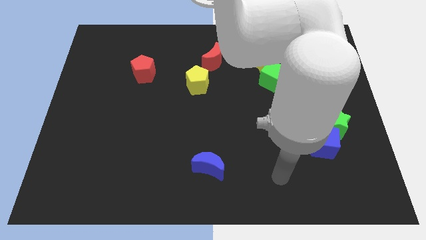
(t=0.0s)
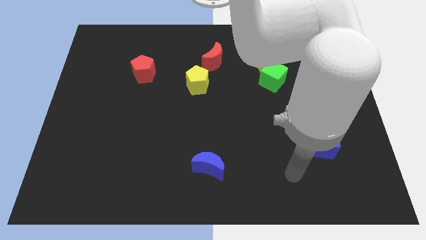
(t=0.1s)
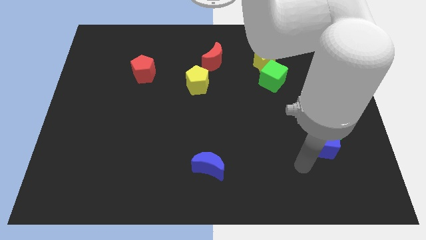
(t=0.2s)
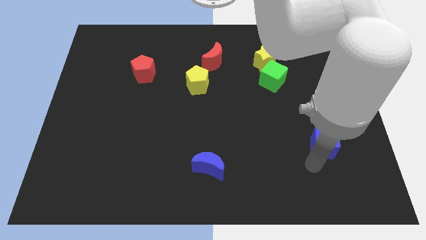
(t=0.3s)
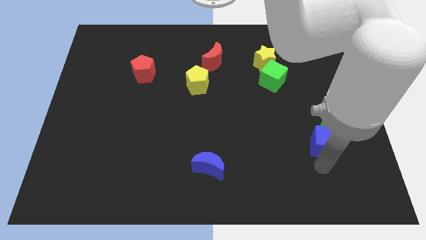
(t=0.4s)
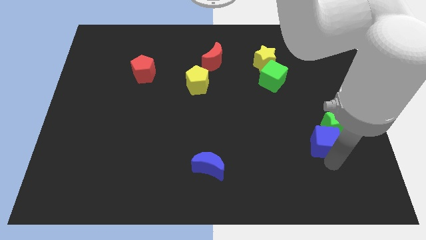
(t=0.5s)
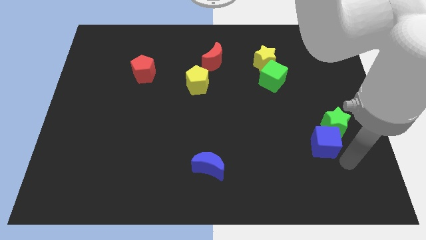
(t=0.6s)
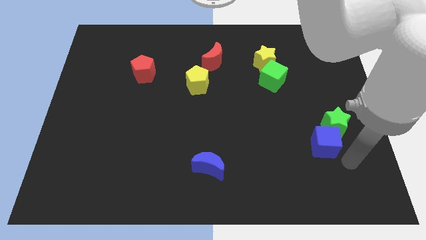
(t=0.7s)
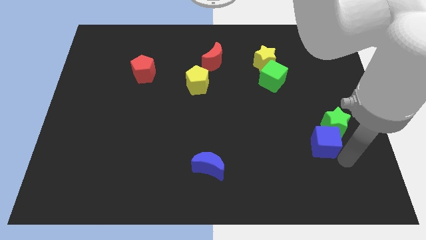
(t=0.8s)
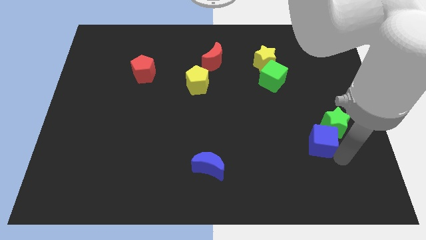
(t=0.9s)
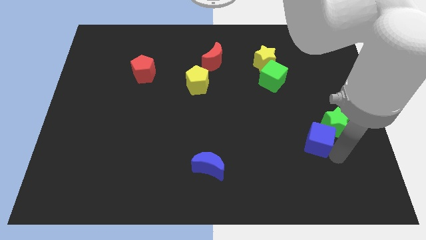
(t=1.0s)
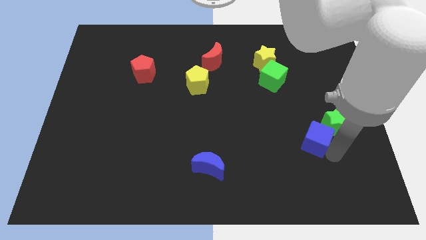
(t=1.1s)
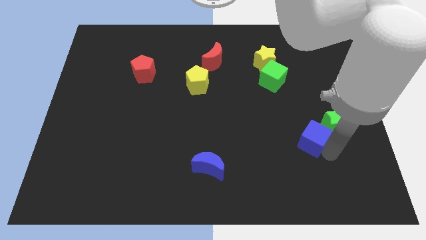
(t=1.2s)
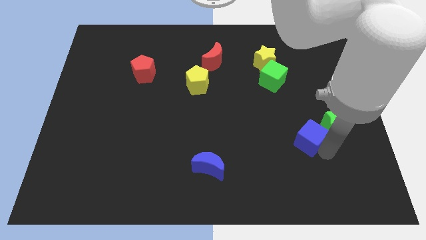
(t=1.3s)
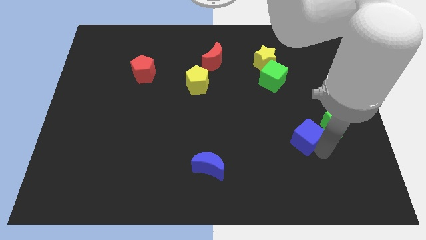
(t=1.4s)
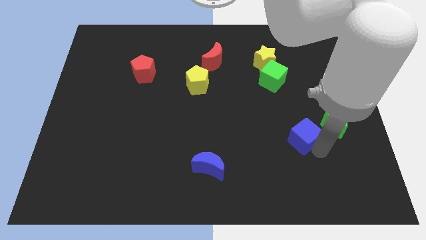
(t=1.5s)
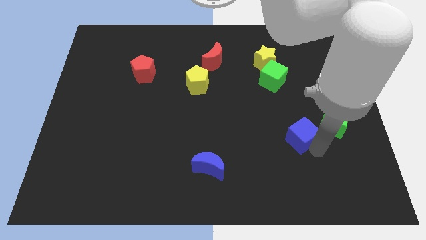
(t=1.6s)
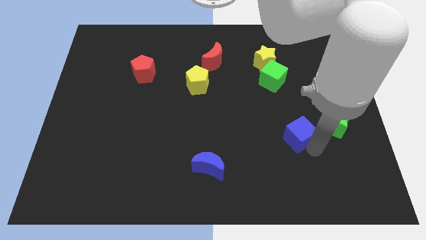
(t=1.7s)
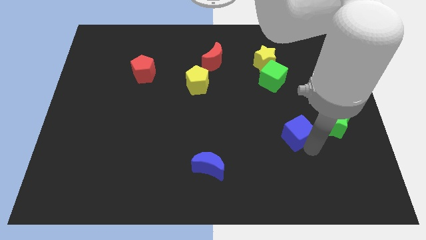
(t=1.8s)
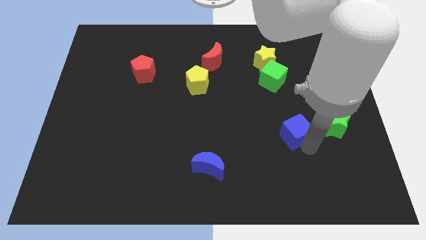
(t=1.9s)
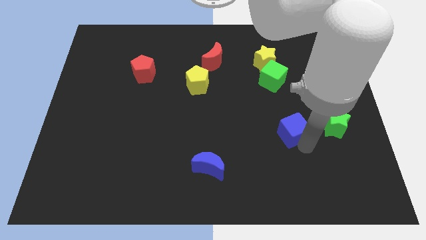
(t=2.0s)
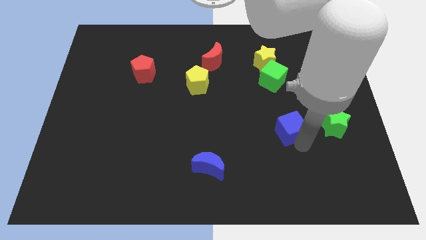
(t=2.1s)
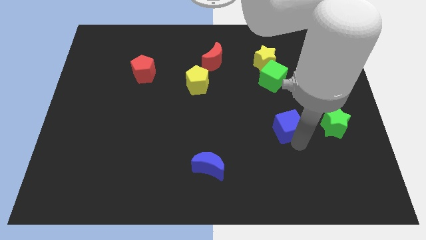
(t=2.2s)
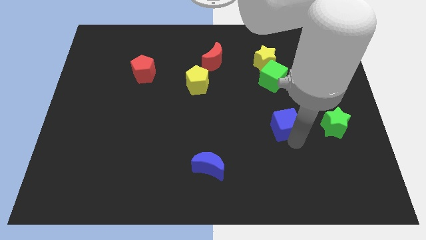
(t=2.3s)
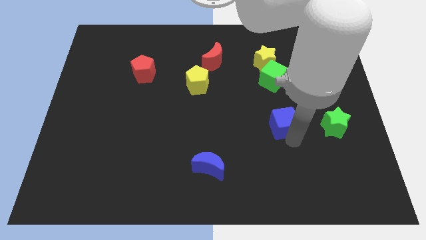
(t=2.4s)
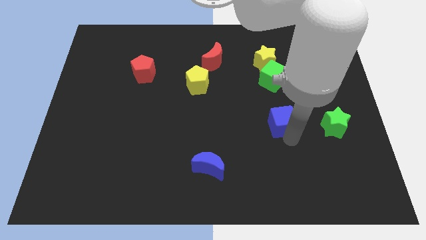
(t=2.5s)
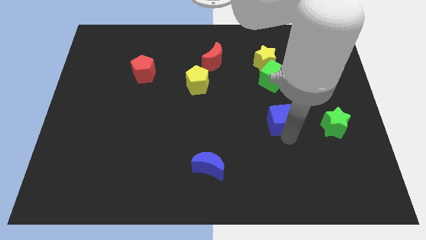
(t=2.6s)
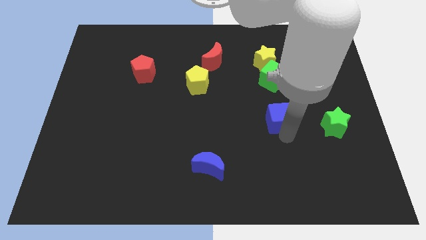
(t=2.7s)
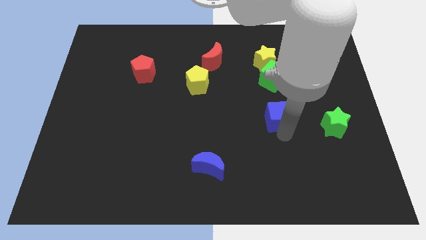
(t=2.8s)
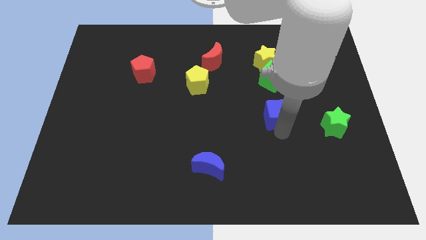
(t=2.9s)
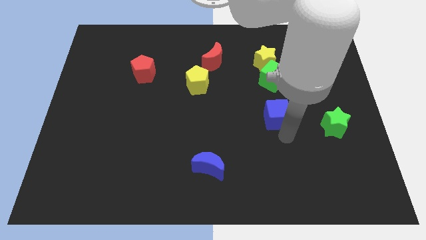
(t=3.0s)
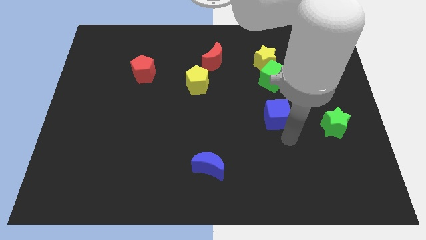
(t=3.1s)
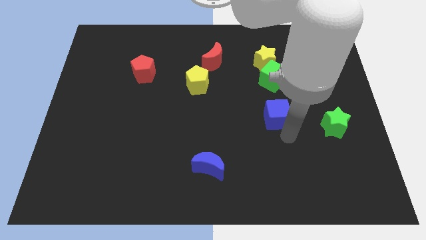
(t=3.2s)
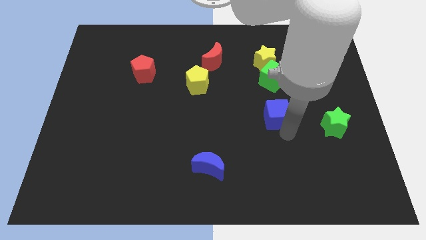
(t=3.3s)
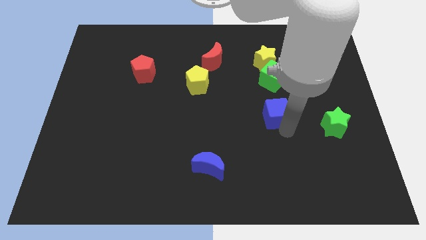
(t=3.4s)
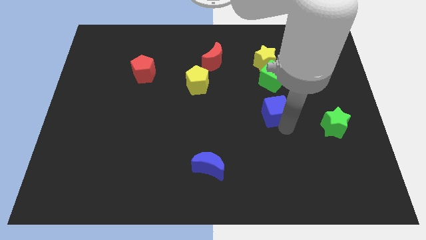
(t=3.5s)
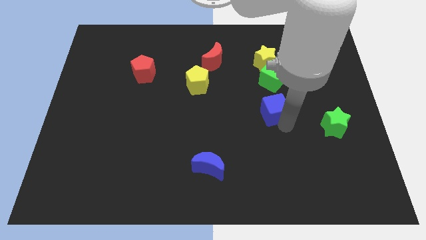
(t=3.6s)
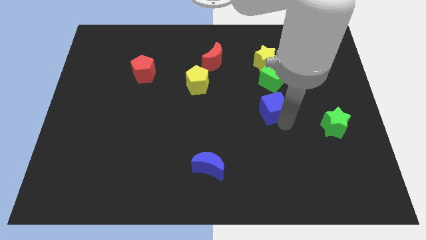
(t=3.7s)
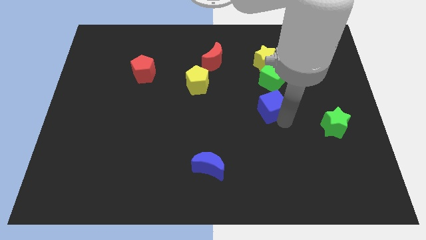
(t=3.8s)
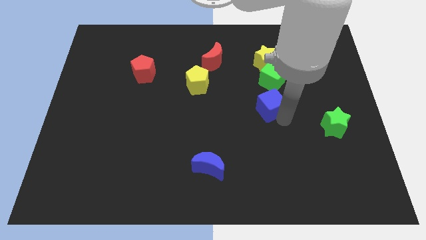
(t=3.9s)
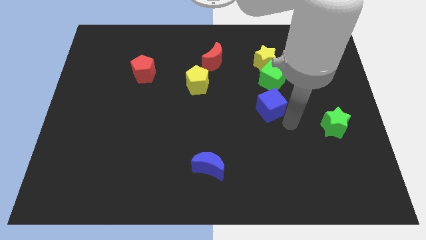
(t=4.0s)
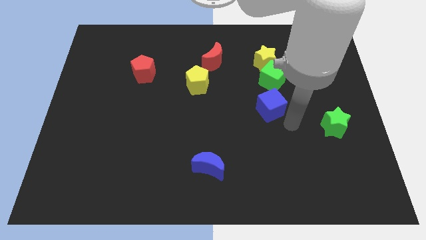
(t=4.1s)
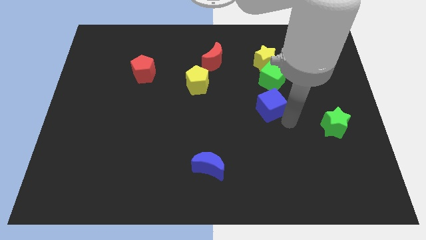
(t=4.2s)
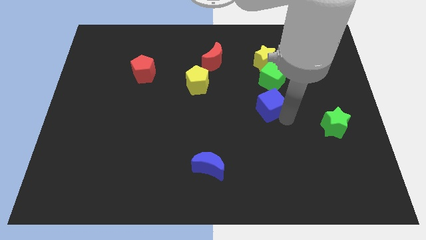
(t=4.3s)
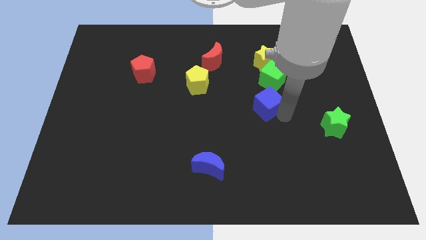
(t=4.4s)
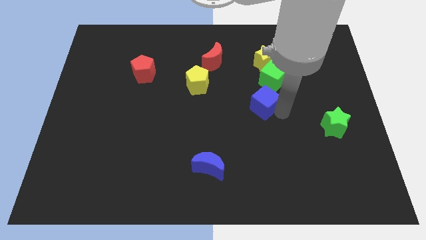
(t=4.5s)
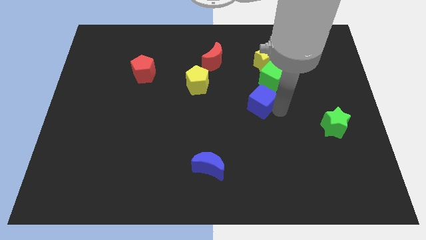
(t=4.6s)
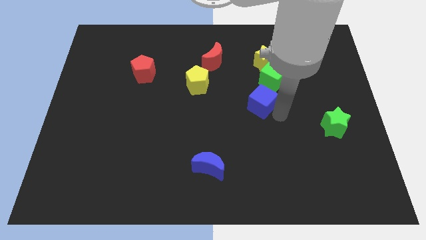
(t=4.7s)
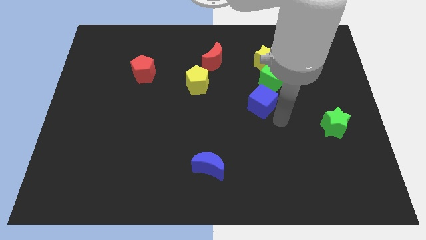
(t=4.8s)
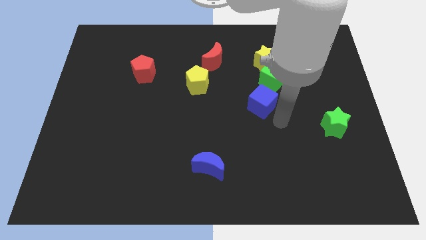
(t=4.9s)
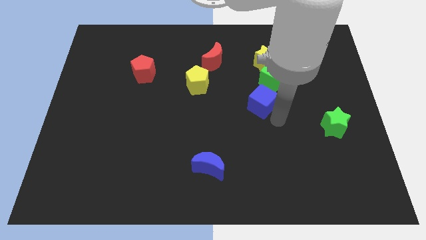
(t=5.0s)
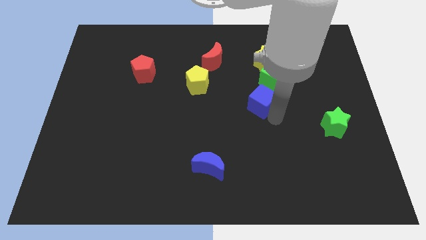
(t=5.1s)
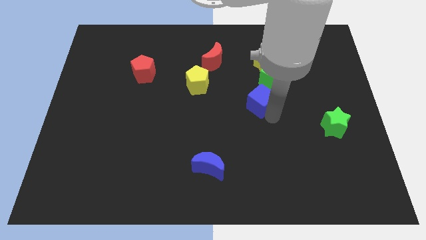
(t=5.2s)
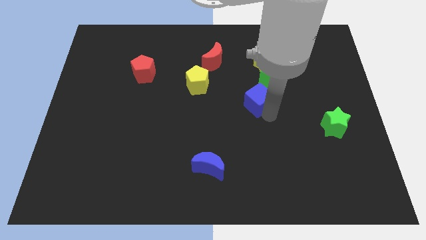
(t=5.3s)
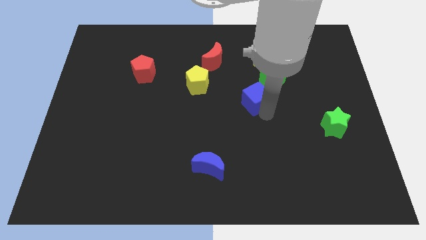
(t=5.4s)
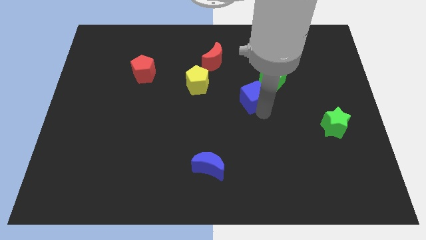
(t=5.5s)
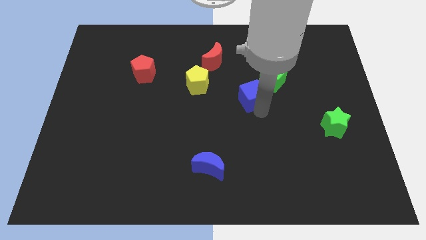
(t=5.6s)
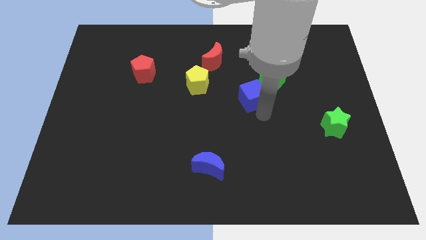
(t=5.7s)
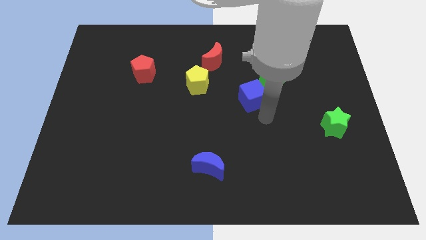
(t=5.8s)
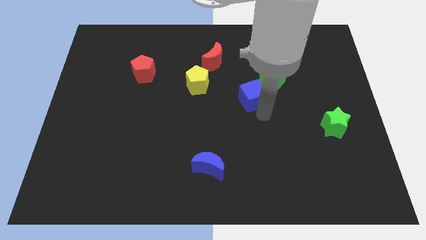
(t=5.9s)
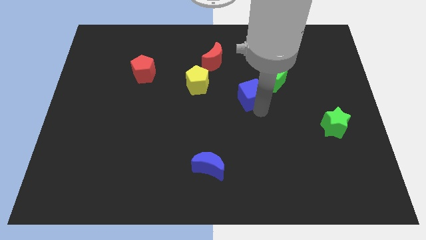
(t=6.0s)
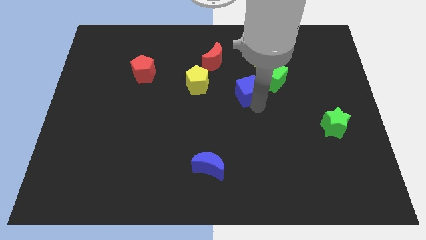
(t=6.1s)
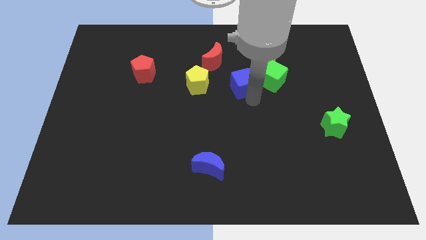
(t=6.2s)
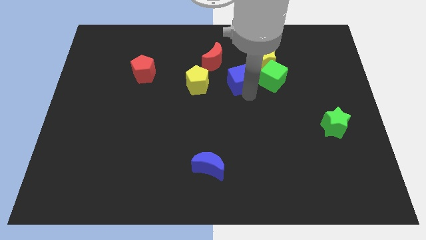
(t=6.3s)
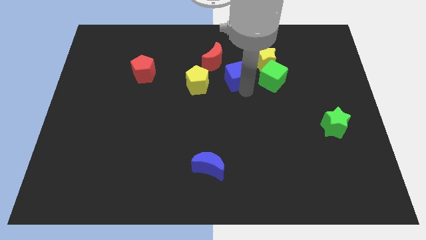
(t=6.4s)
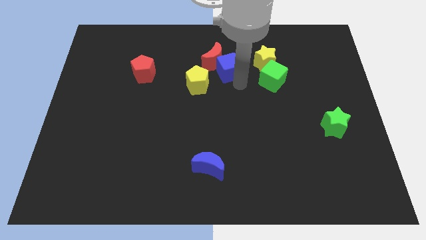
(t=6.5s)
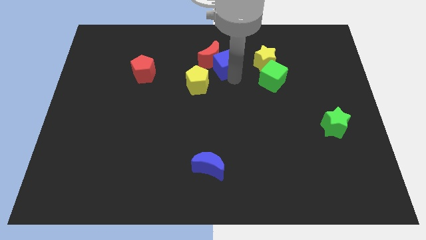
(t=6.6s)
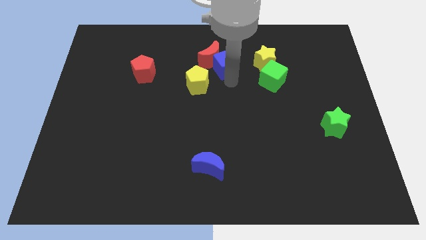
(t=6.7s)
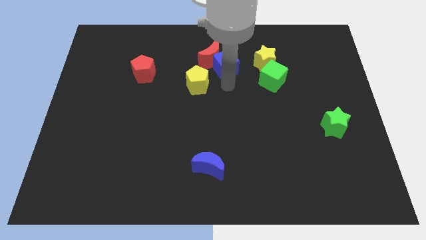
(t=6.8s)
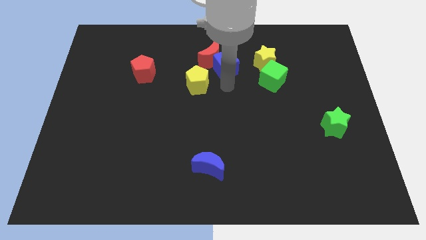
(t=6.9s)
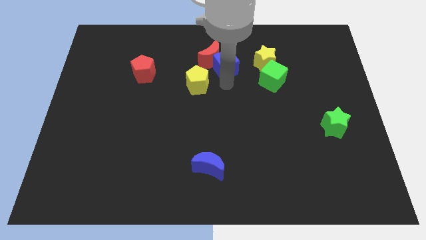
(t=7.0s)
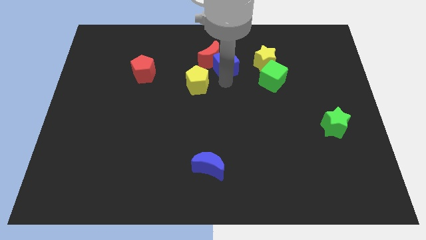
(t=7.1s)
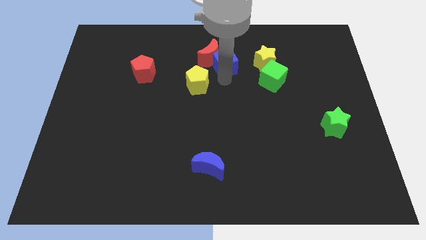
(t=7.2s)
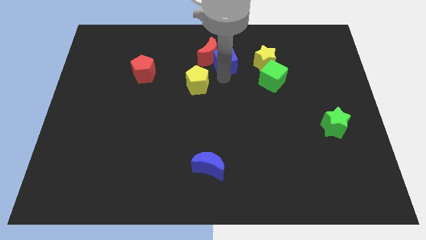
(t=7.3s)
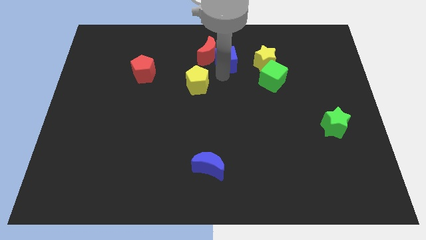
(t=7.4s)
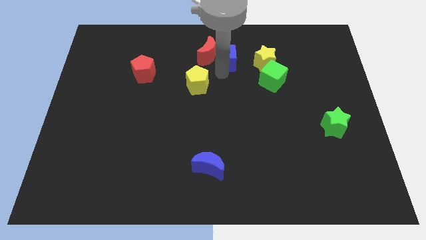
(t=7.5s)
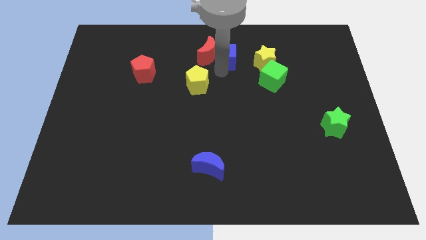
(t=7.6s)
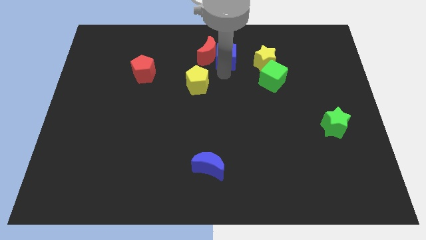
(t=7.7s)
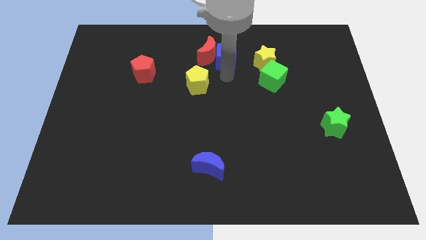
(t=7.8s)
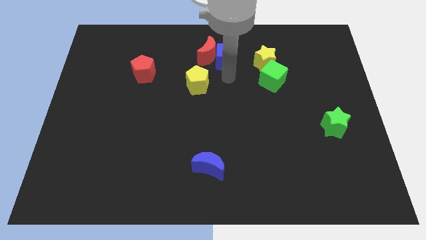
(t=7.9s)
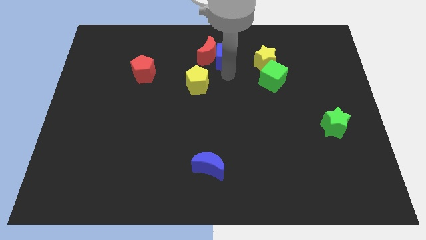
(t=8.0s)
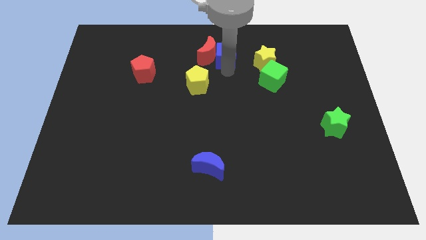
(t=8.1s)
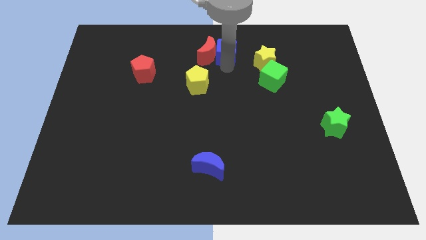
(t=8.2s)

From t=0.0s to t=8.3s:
put the blue cube to the towards your base
